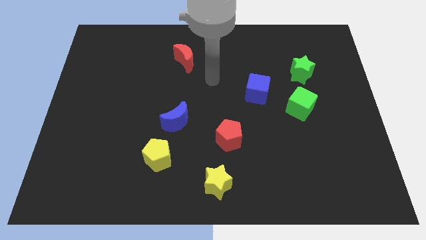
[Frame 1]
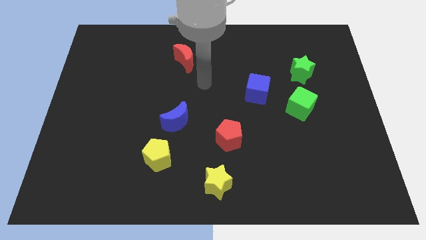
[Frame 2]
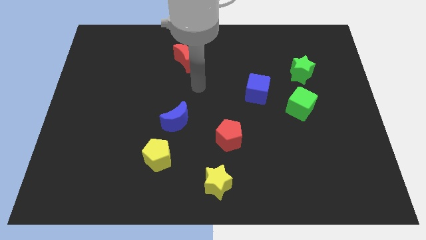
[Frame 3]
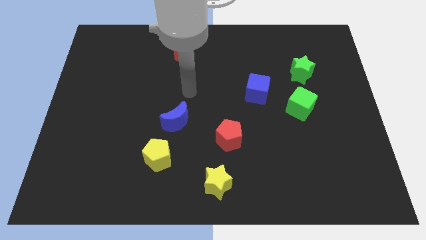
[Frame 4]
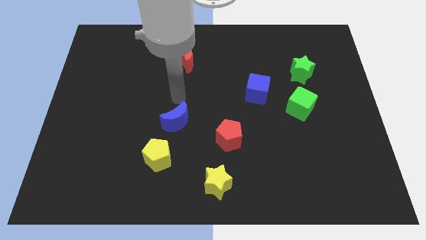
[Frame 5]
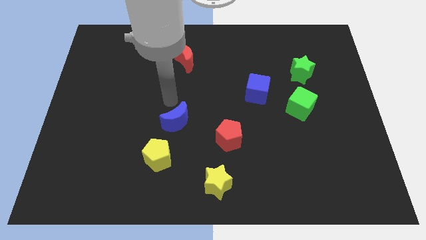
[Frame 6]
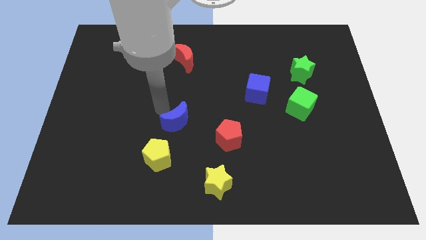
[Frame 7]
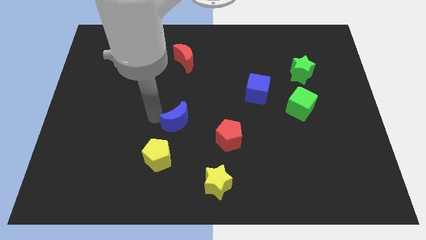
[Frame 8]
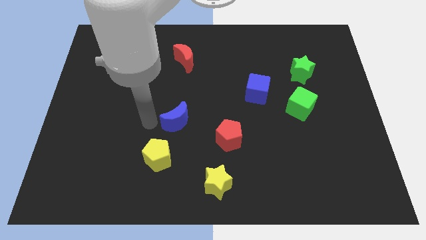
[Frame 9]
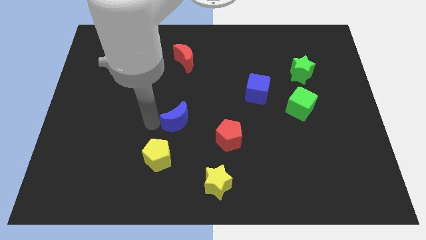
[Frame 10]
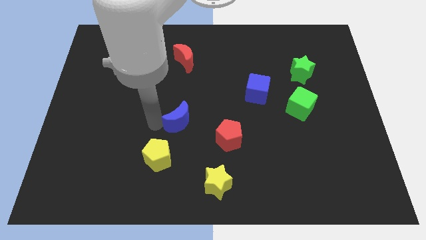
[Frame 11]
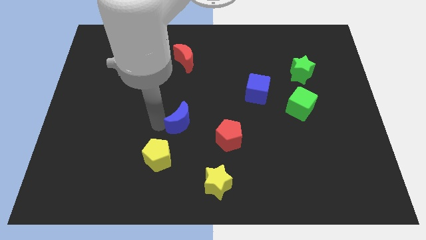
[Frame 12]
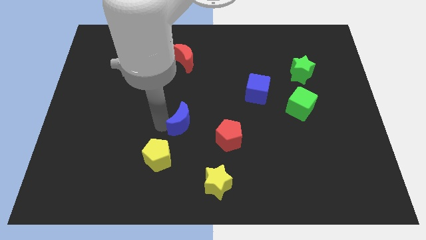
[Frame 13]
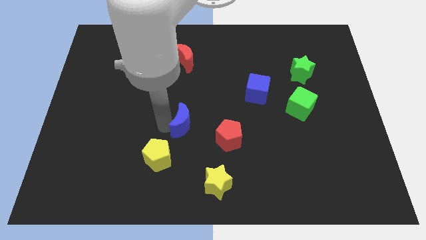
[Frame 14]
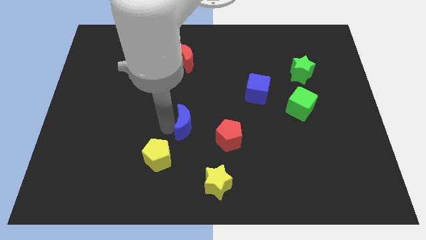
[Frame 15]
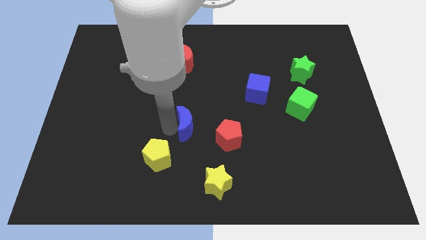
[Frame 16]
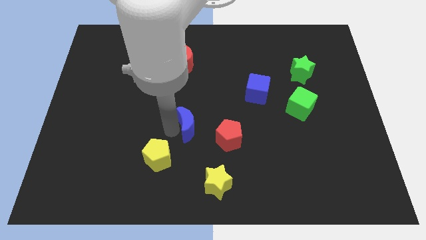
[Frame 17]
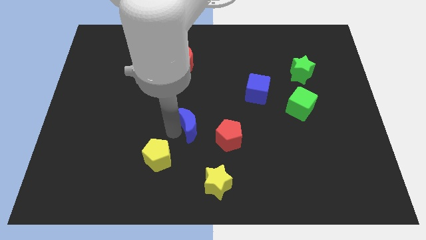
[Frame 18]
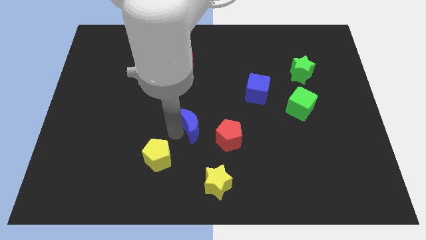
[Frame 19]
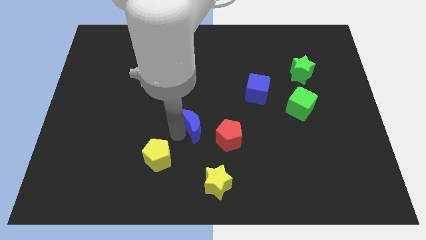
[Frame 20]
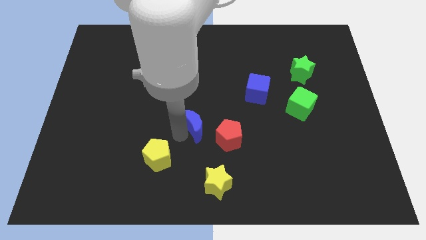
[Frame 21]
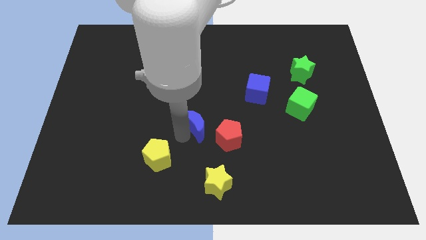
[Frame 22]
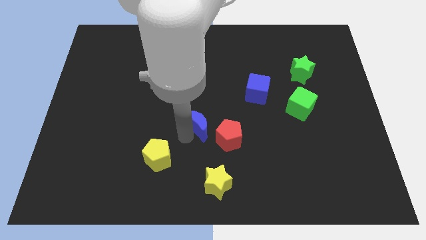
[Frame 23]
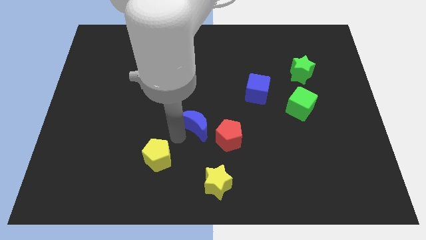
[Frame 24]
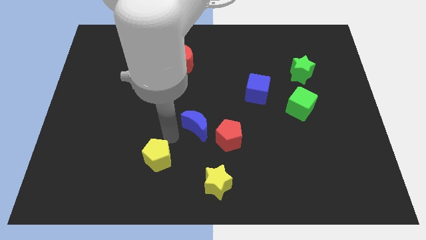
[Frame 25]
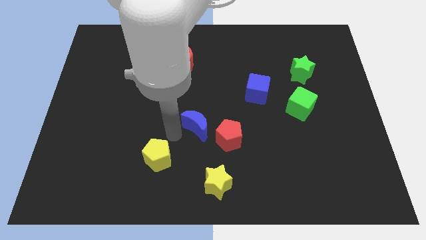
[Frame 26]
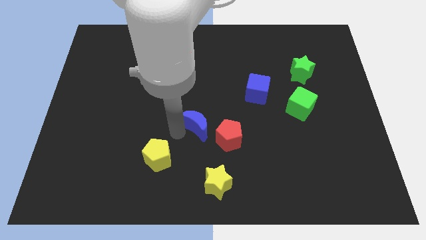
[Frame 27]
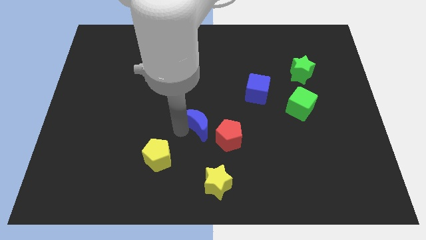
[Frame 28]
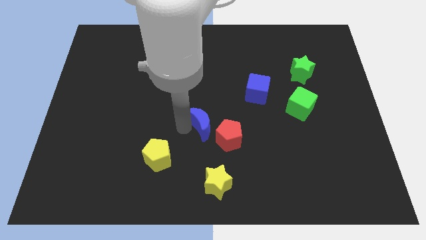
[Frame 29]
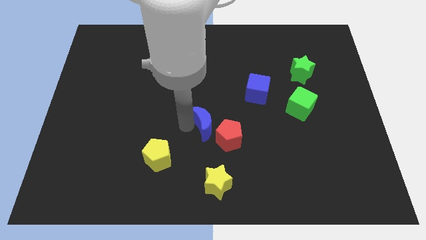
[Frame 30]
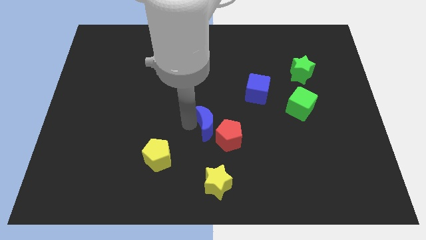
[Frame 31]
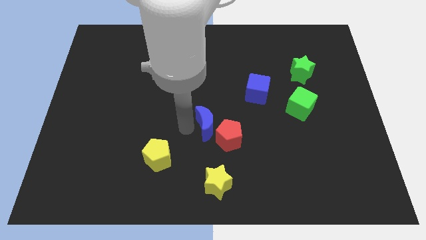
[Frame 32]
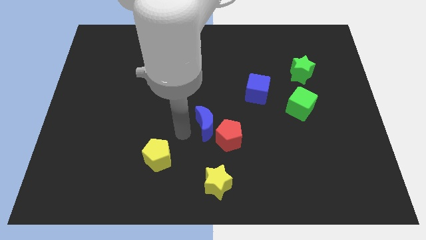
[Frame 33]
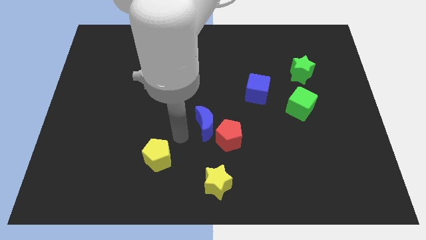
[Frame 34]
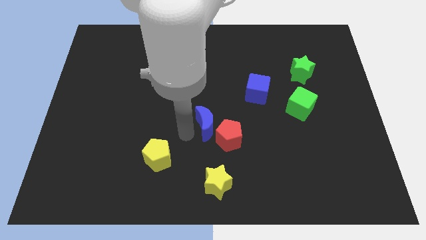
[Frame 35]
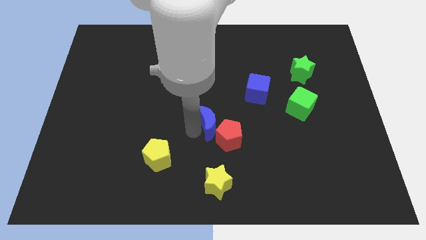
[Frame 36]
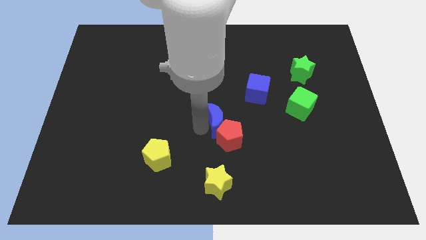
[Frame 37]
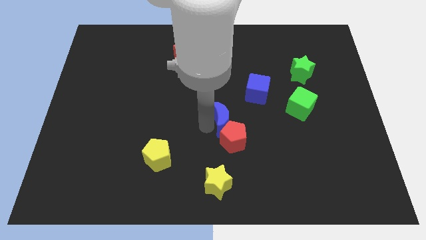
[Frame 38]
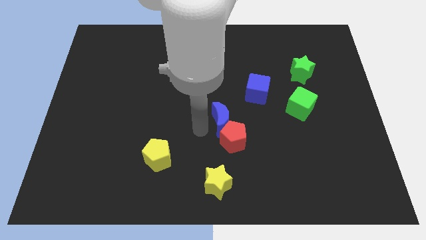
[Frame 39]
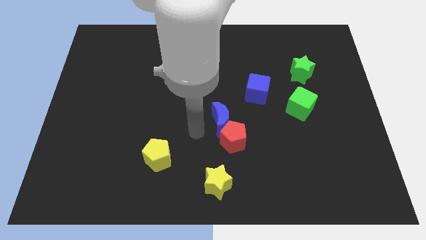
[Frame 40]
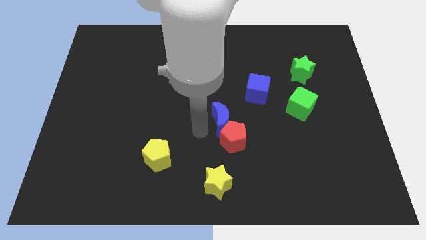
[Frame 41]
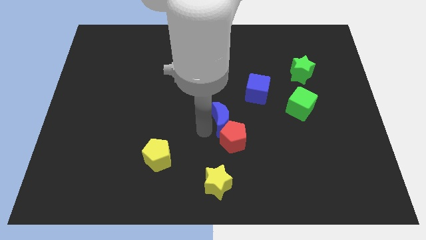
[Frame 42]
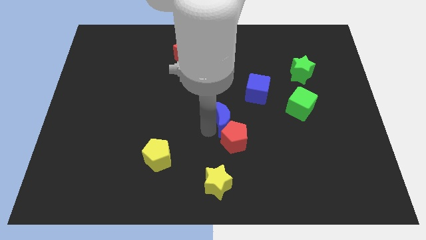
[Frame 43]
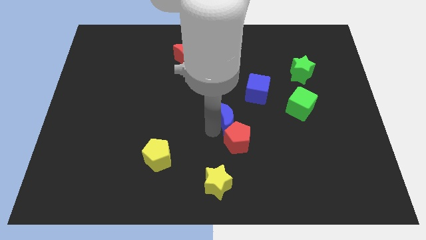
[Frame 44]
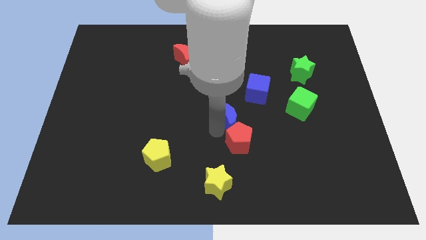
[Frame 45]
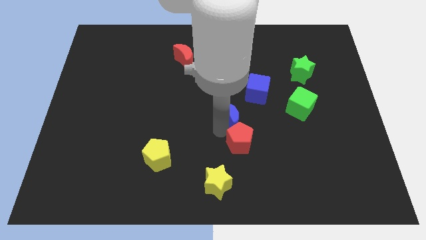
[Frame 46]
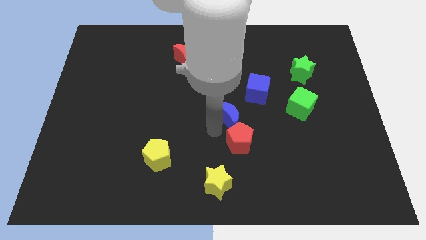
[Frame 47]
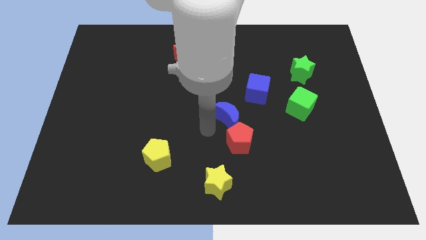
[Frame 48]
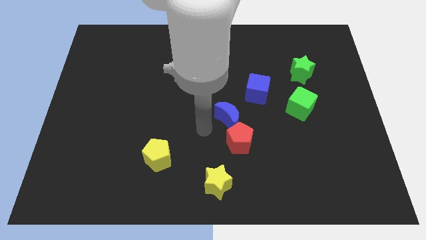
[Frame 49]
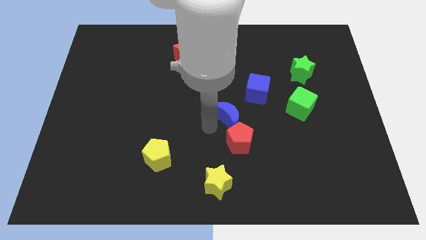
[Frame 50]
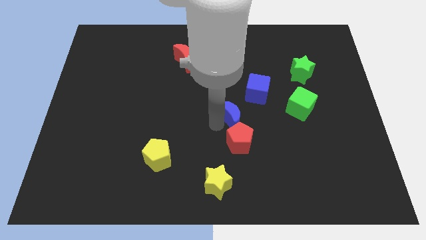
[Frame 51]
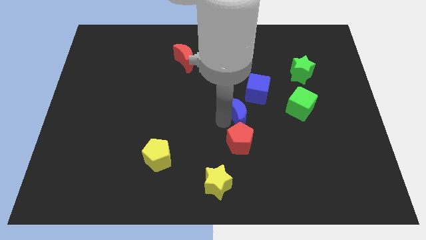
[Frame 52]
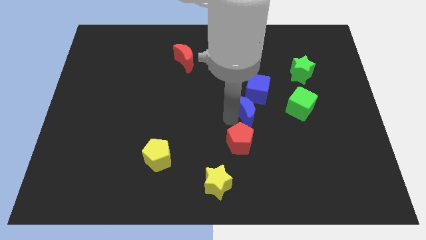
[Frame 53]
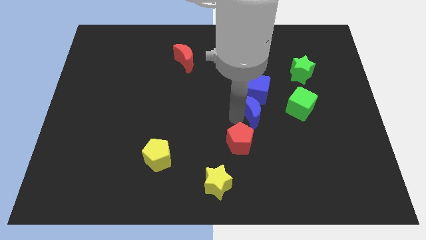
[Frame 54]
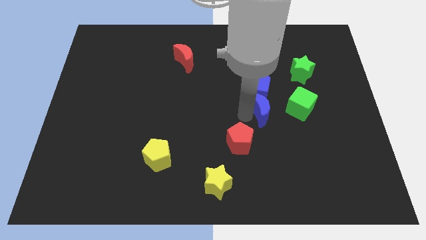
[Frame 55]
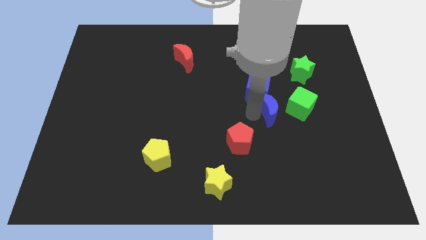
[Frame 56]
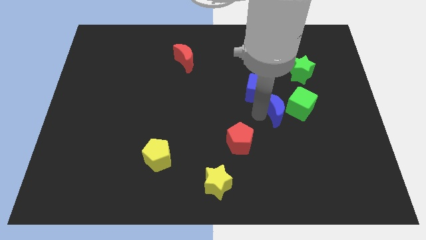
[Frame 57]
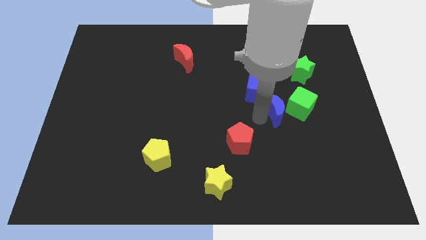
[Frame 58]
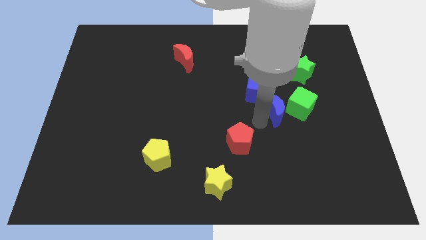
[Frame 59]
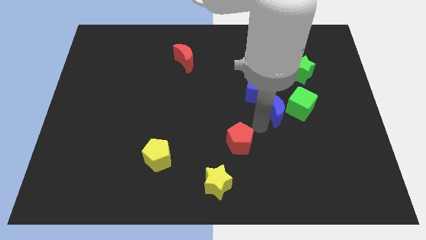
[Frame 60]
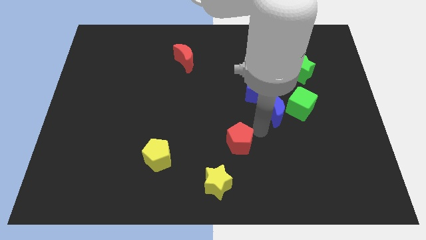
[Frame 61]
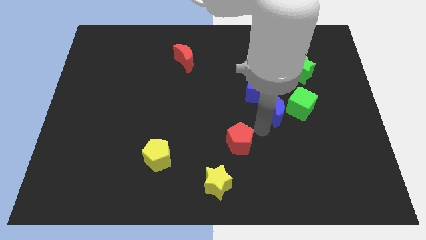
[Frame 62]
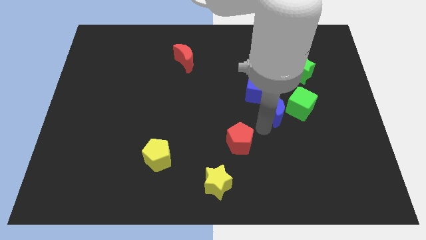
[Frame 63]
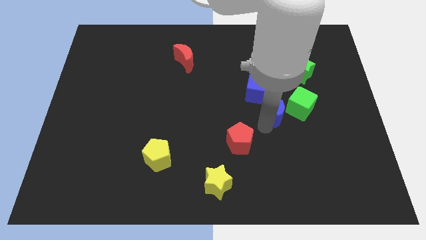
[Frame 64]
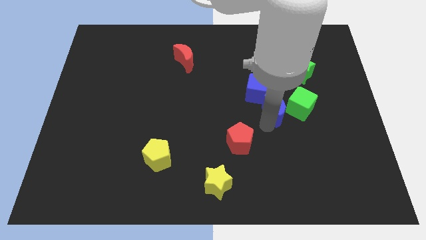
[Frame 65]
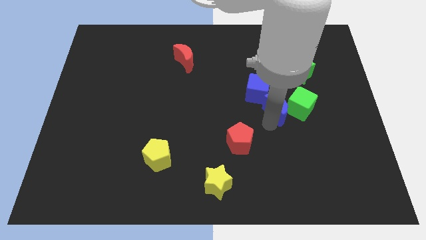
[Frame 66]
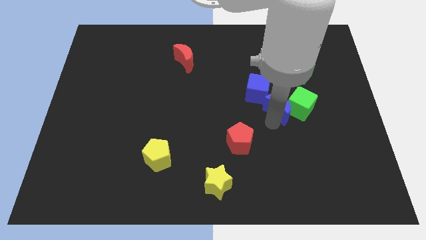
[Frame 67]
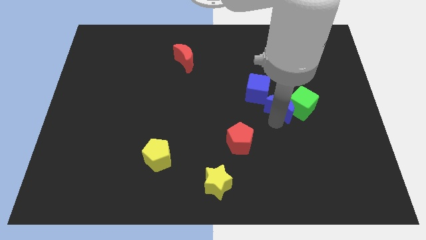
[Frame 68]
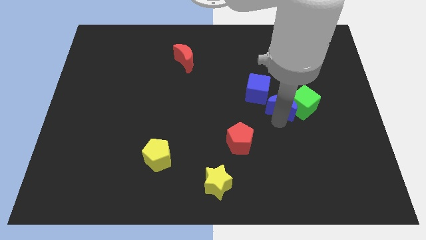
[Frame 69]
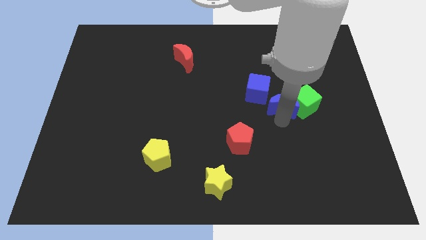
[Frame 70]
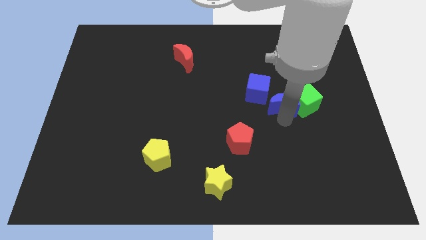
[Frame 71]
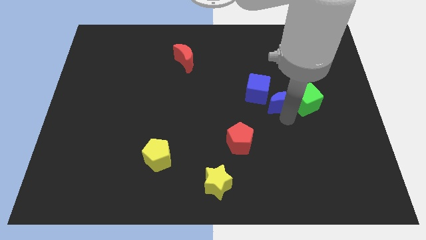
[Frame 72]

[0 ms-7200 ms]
push the blue moon to the bottom left of the green star
